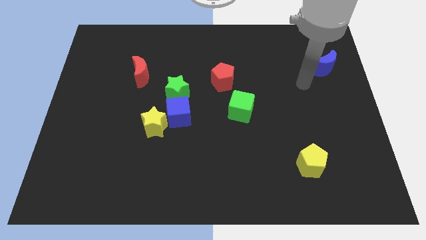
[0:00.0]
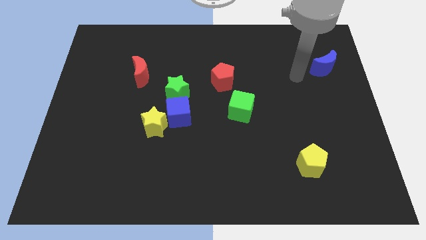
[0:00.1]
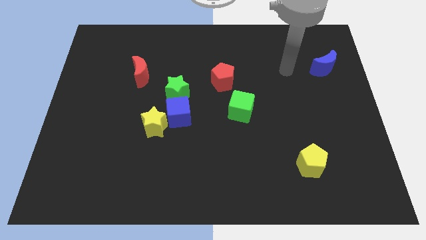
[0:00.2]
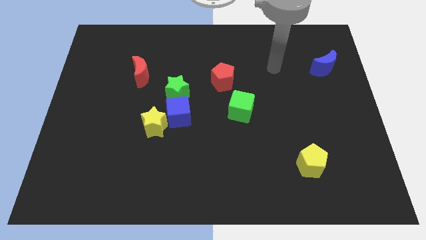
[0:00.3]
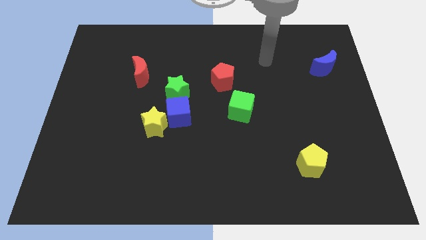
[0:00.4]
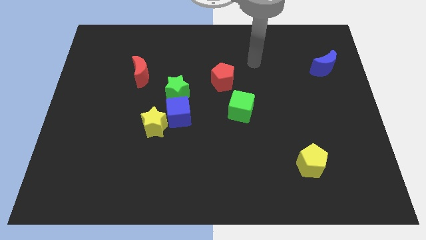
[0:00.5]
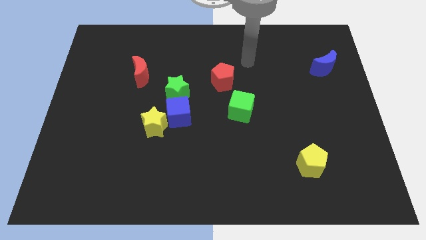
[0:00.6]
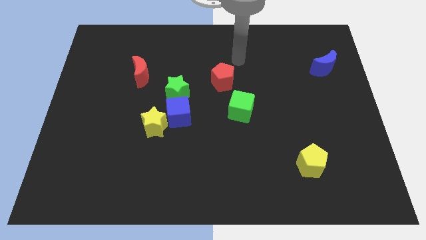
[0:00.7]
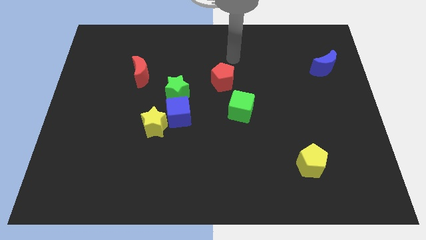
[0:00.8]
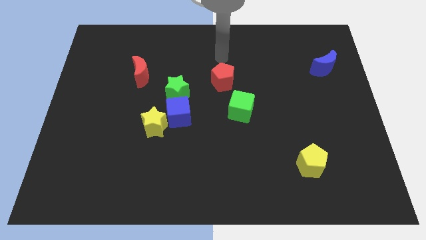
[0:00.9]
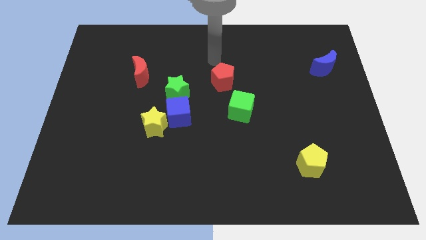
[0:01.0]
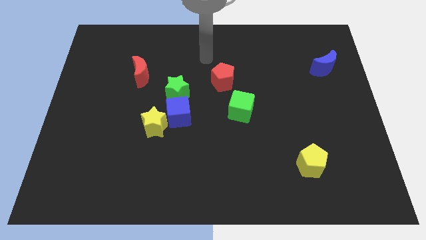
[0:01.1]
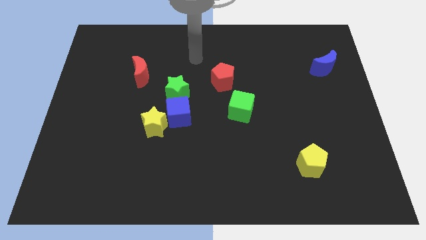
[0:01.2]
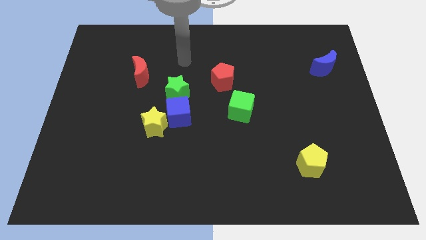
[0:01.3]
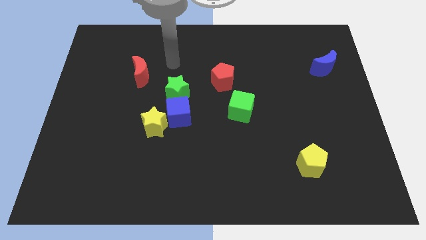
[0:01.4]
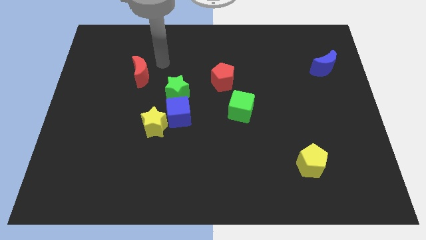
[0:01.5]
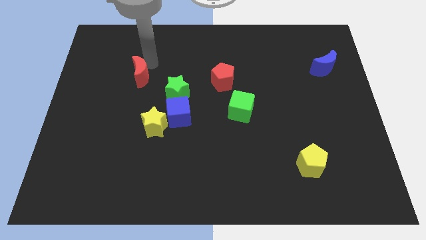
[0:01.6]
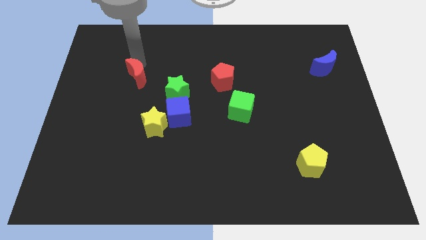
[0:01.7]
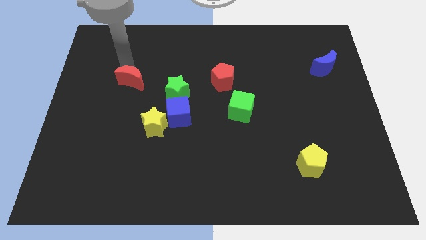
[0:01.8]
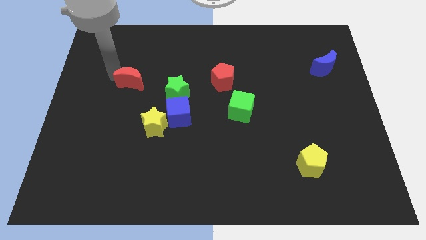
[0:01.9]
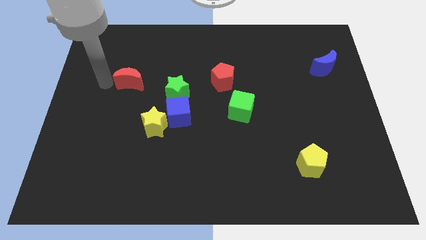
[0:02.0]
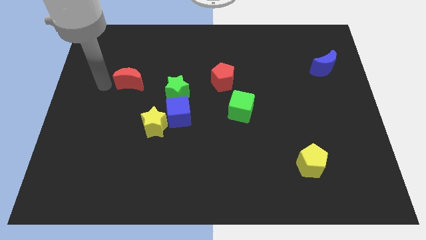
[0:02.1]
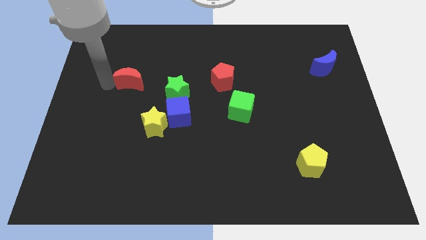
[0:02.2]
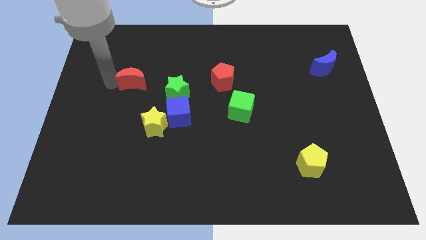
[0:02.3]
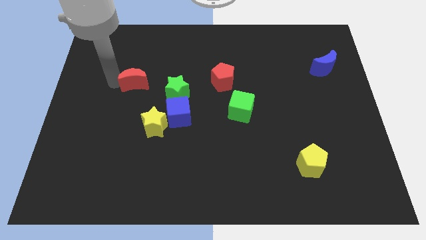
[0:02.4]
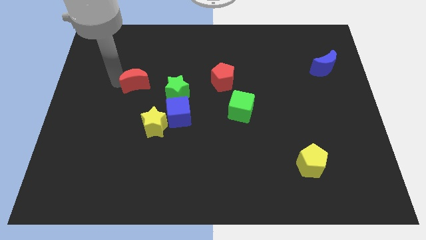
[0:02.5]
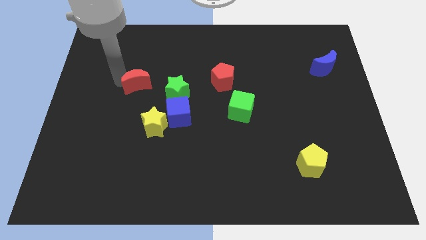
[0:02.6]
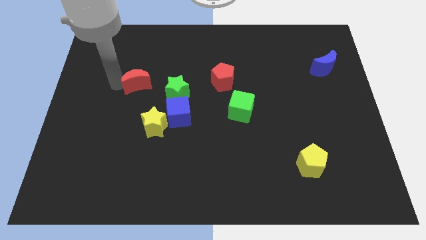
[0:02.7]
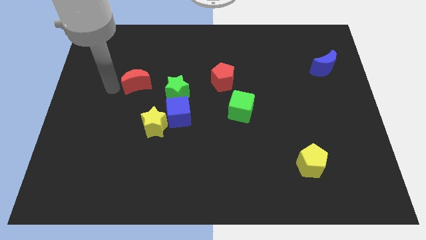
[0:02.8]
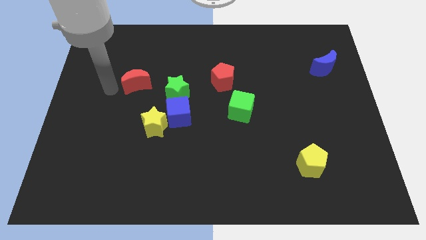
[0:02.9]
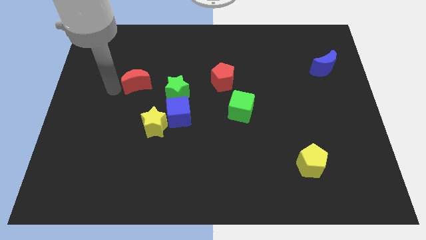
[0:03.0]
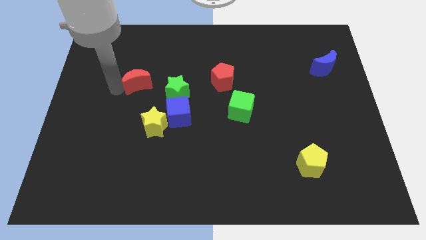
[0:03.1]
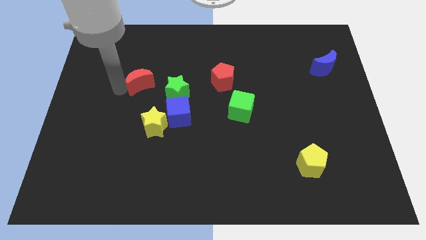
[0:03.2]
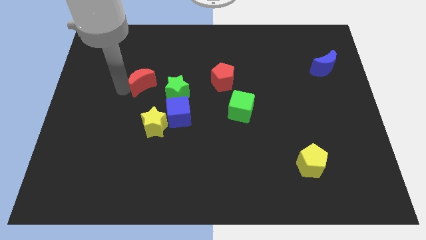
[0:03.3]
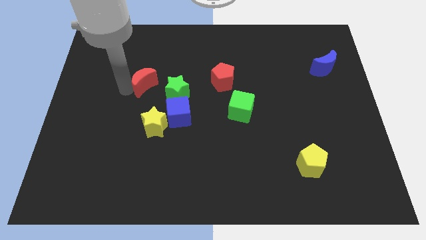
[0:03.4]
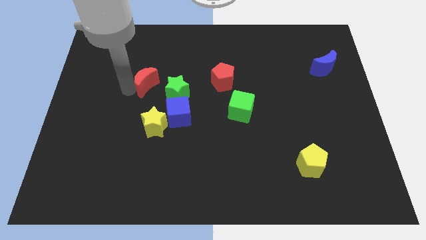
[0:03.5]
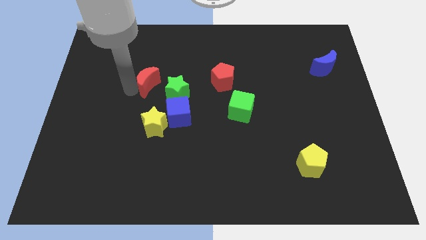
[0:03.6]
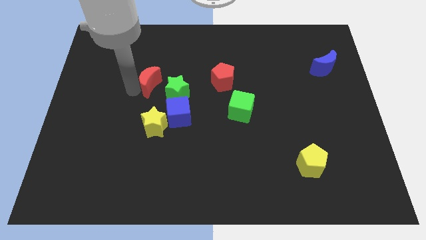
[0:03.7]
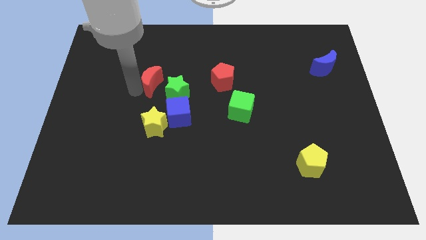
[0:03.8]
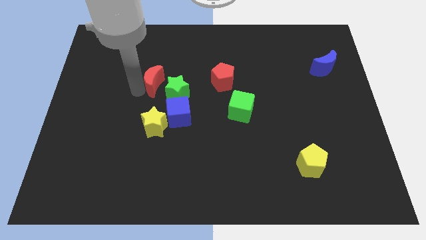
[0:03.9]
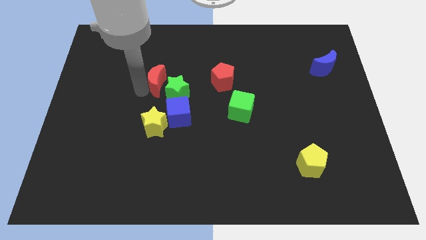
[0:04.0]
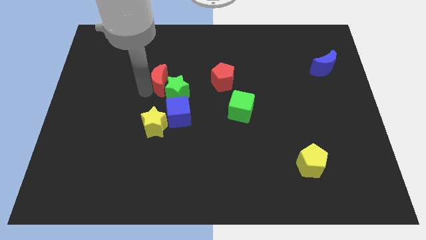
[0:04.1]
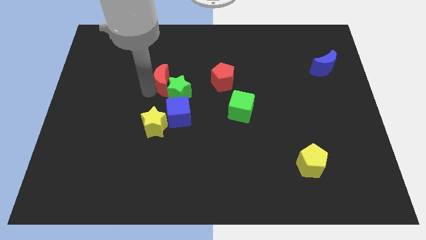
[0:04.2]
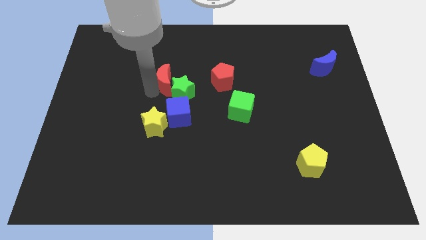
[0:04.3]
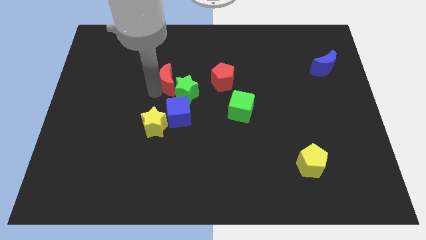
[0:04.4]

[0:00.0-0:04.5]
put the red moon to the center

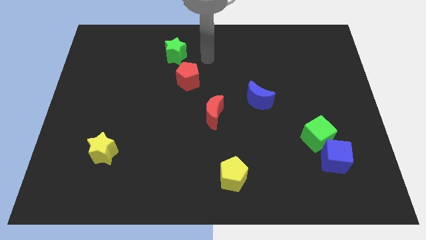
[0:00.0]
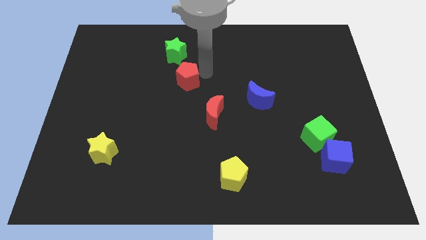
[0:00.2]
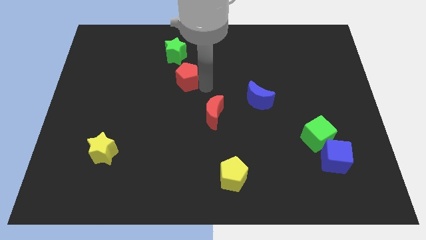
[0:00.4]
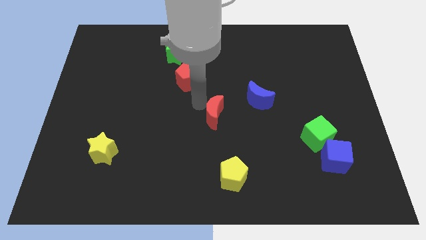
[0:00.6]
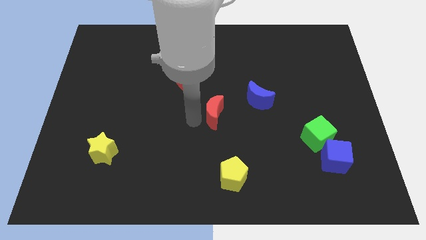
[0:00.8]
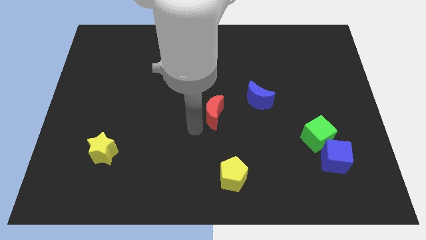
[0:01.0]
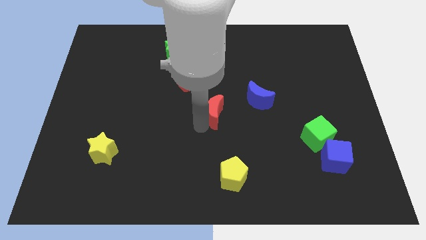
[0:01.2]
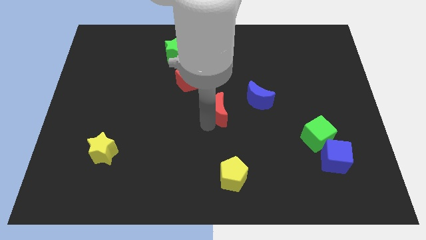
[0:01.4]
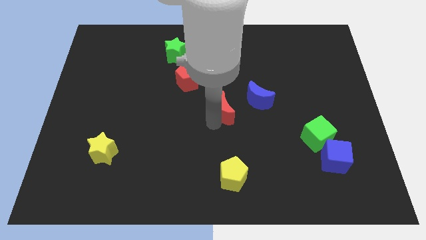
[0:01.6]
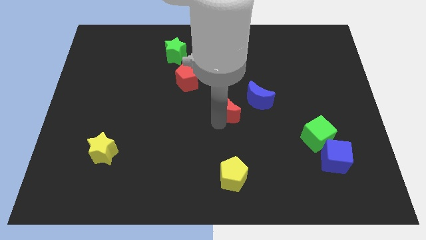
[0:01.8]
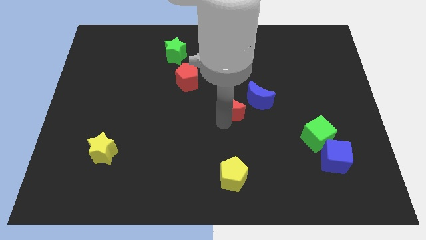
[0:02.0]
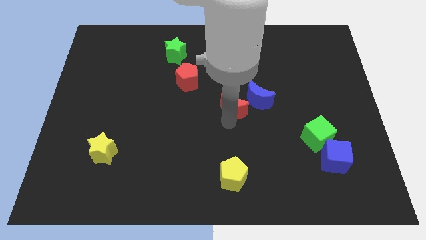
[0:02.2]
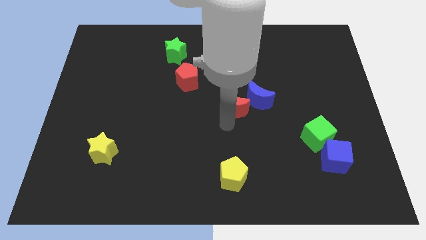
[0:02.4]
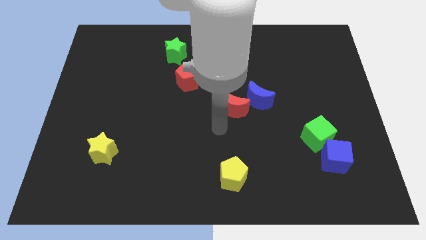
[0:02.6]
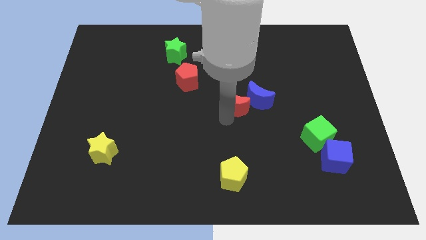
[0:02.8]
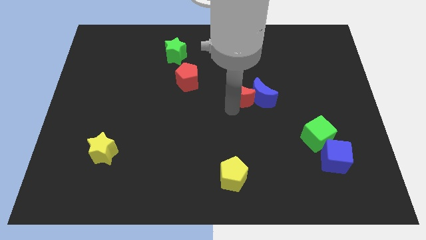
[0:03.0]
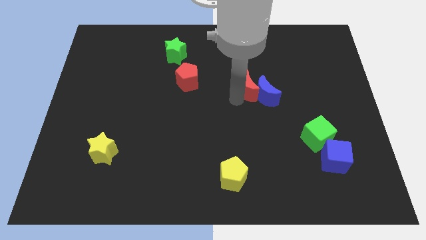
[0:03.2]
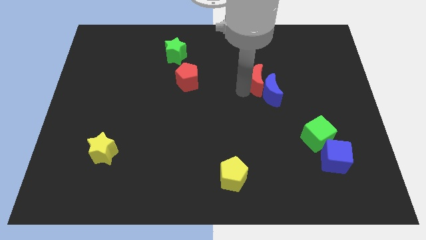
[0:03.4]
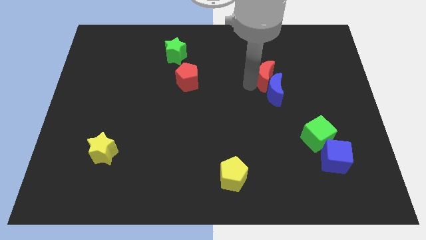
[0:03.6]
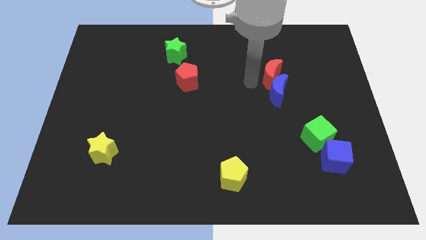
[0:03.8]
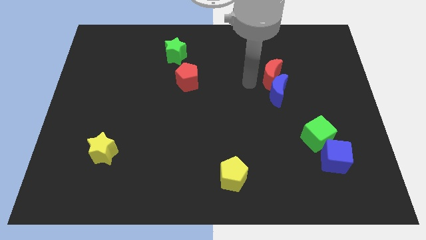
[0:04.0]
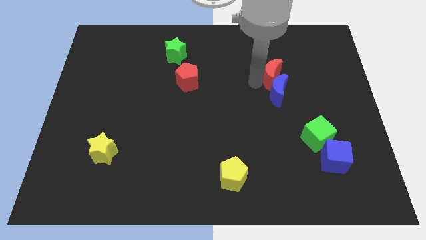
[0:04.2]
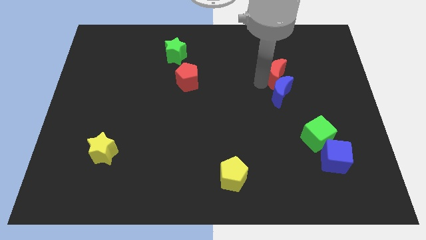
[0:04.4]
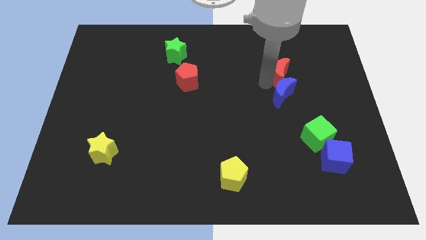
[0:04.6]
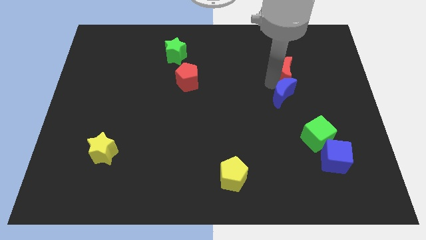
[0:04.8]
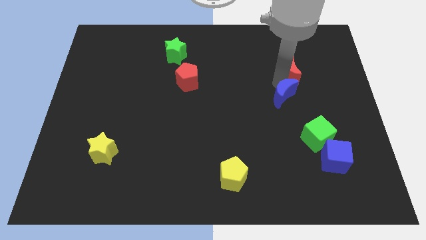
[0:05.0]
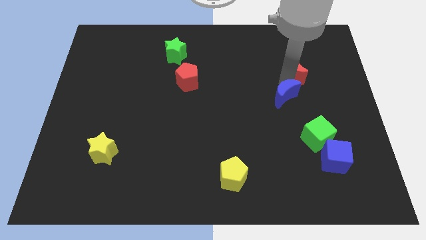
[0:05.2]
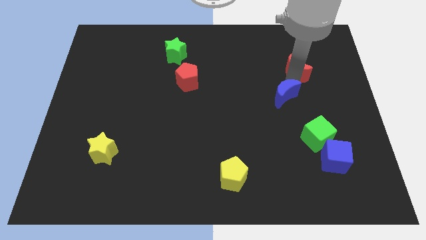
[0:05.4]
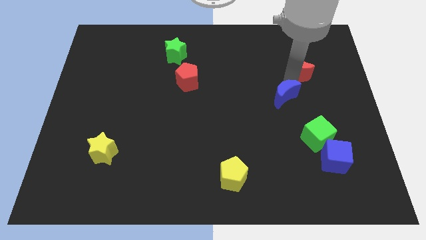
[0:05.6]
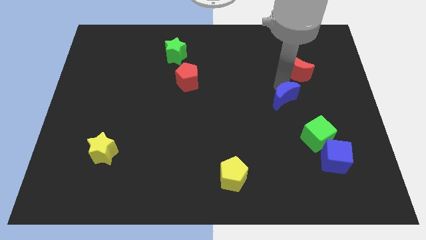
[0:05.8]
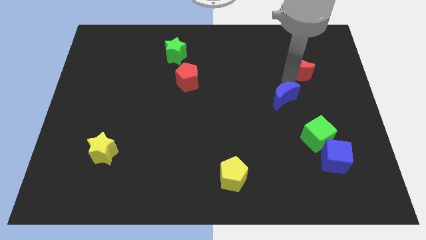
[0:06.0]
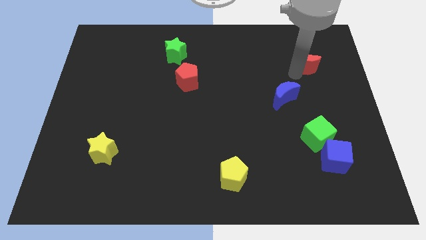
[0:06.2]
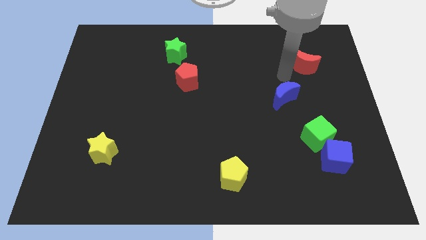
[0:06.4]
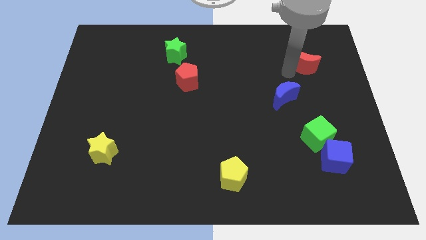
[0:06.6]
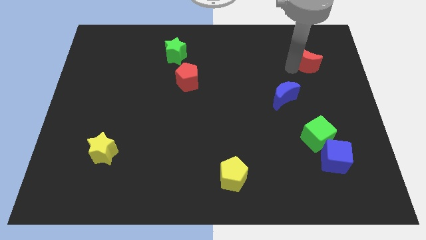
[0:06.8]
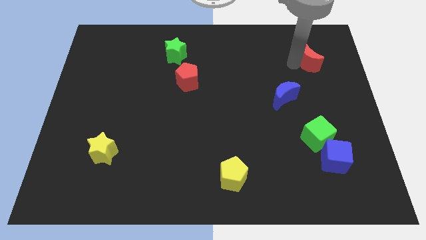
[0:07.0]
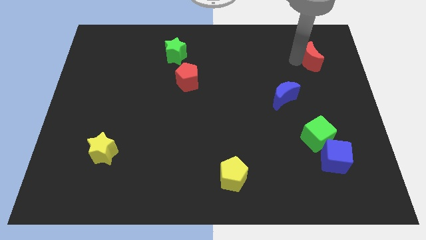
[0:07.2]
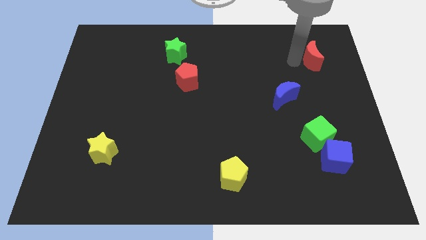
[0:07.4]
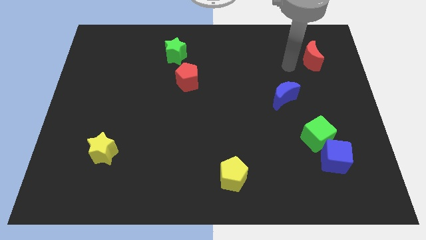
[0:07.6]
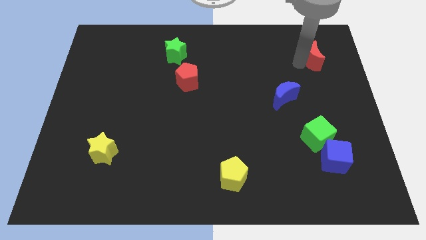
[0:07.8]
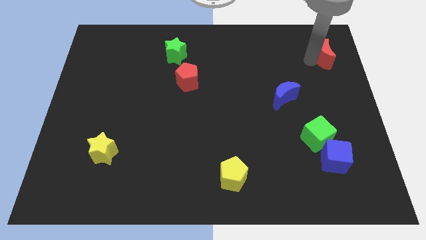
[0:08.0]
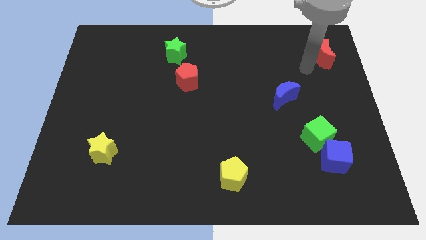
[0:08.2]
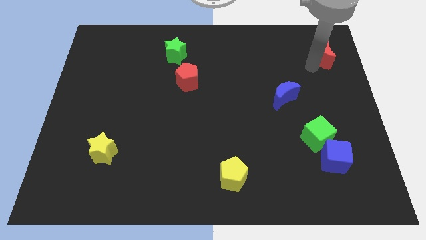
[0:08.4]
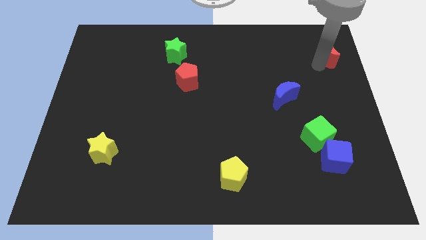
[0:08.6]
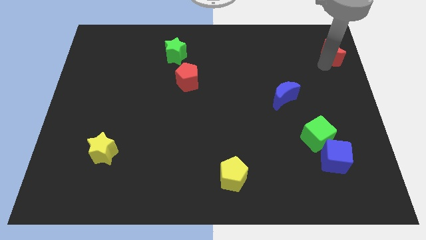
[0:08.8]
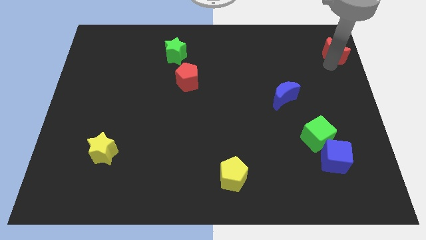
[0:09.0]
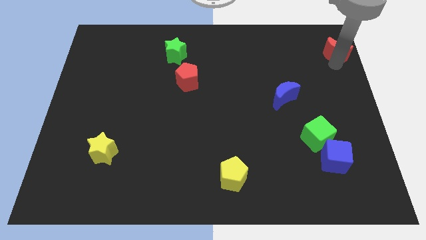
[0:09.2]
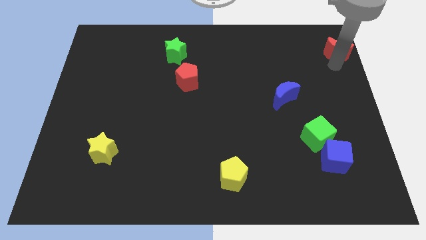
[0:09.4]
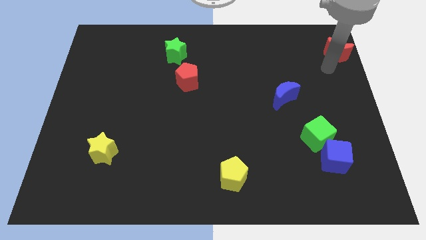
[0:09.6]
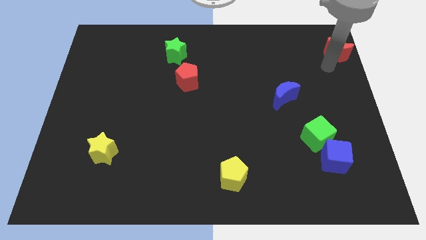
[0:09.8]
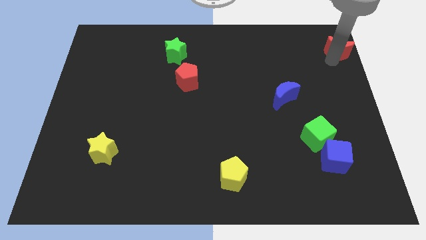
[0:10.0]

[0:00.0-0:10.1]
move the red moon to the top right
